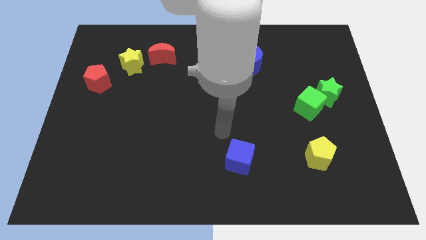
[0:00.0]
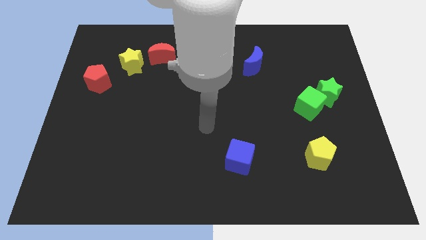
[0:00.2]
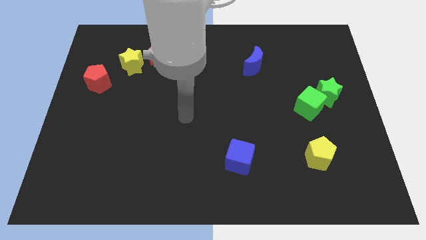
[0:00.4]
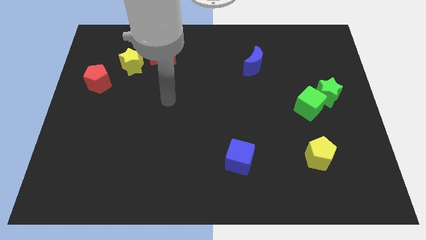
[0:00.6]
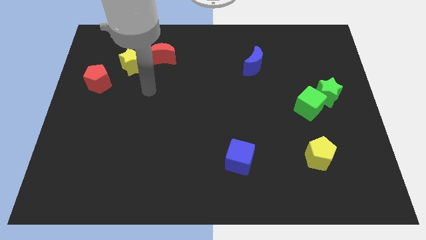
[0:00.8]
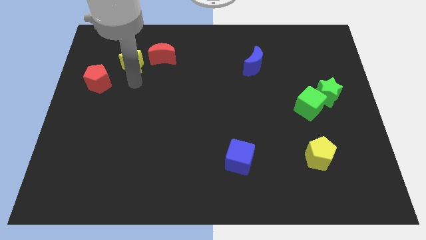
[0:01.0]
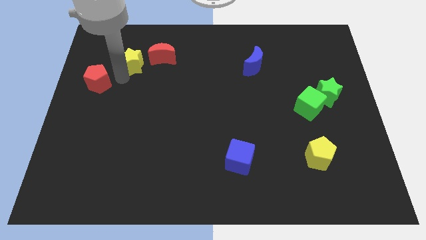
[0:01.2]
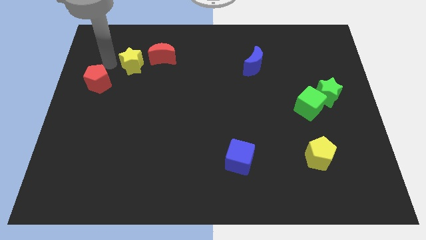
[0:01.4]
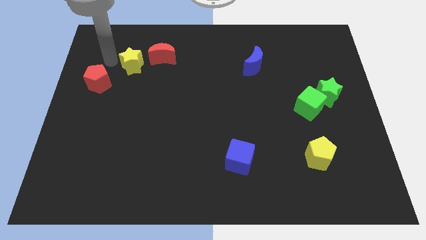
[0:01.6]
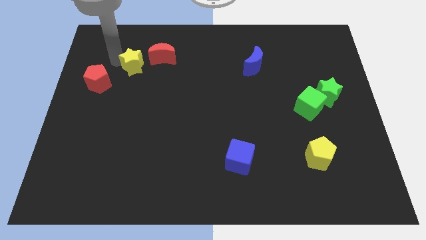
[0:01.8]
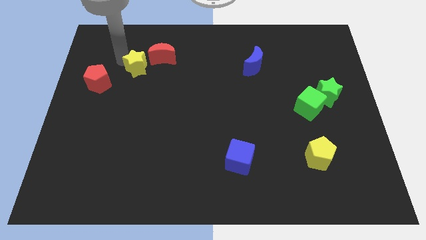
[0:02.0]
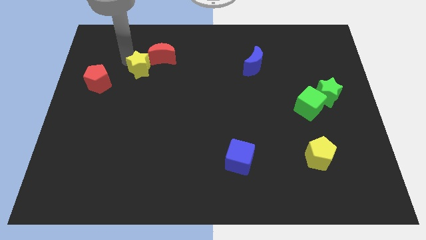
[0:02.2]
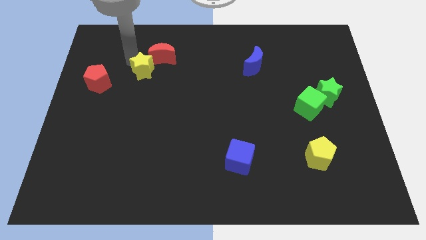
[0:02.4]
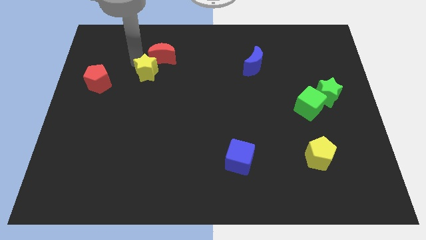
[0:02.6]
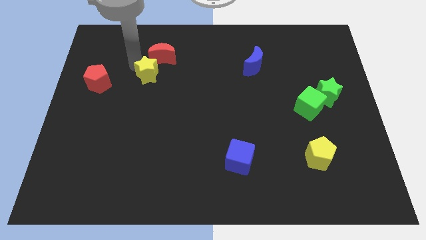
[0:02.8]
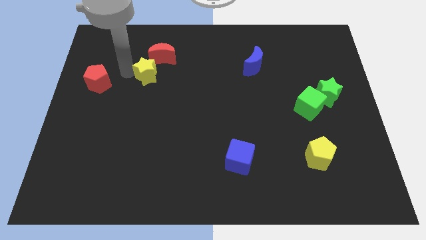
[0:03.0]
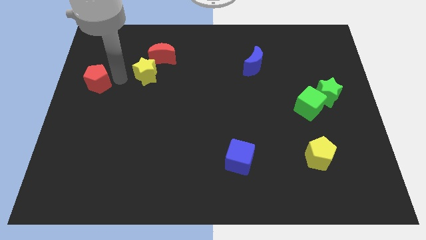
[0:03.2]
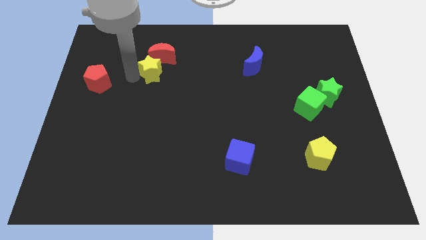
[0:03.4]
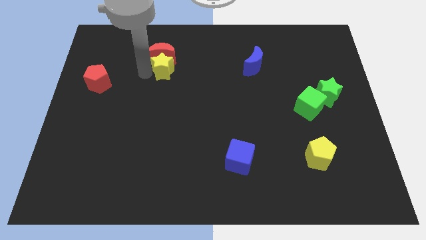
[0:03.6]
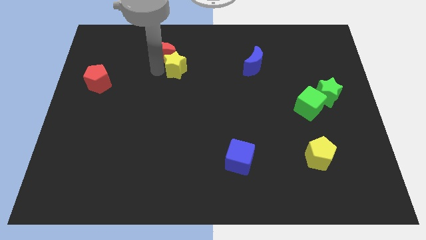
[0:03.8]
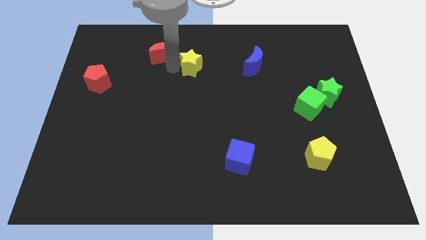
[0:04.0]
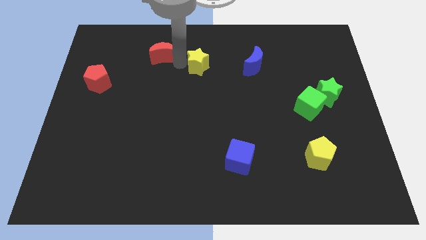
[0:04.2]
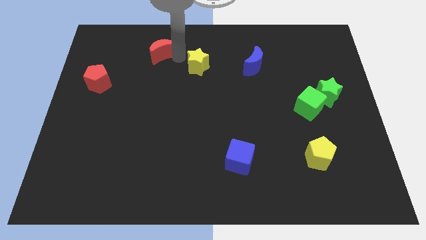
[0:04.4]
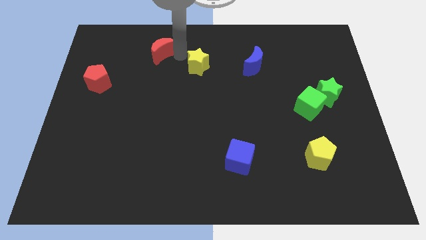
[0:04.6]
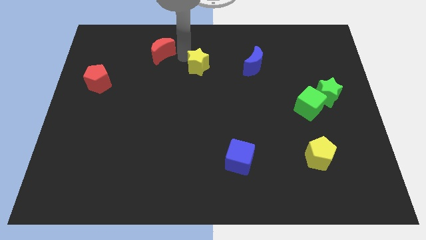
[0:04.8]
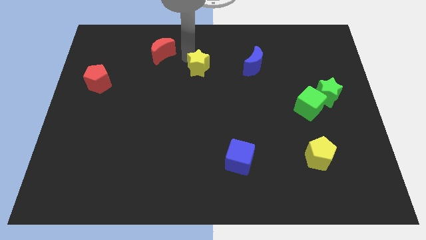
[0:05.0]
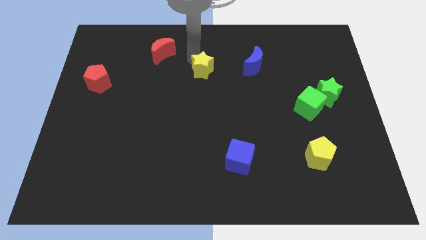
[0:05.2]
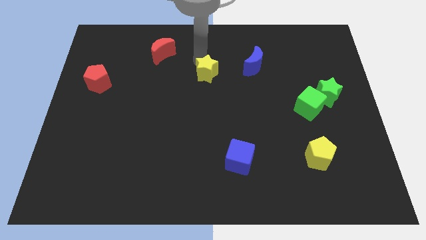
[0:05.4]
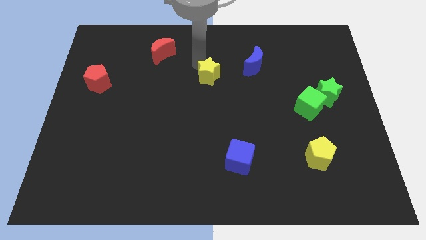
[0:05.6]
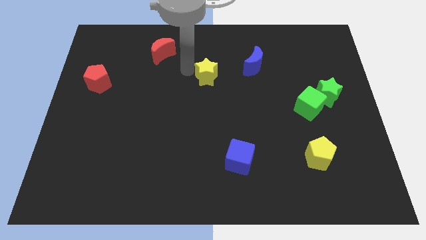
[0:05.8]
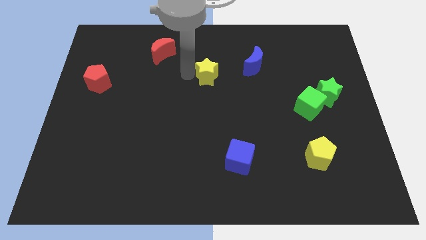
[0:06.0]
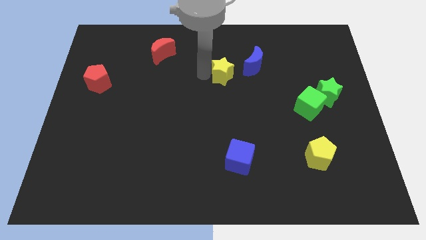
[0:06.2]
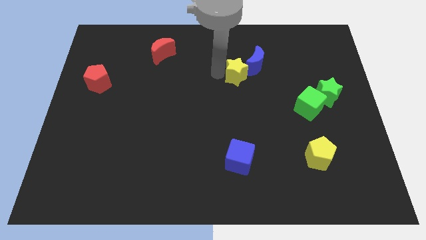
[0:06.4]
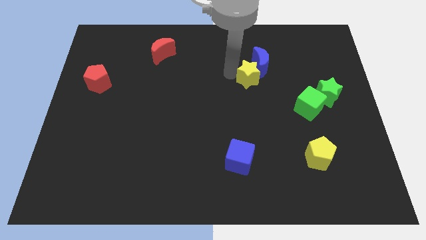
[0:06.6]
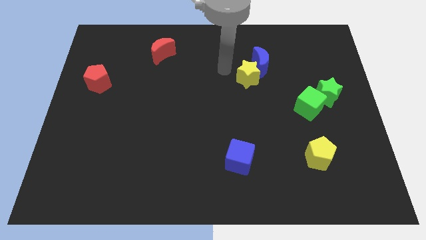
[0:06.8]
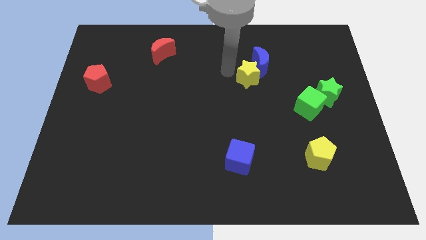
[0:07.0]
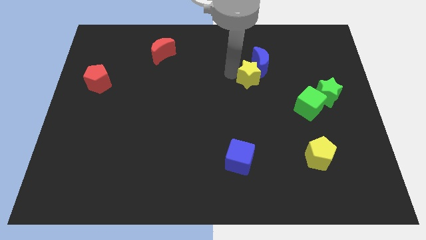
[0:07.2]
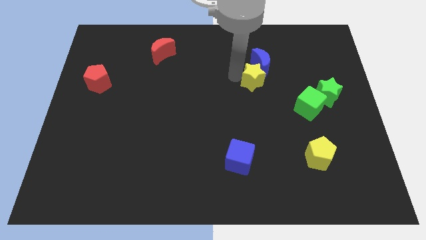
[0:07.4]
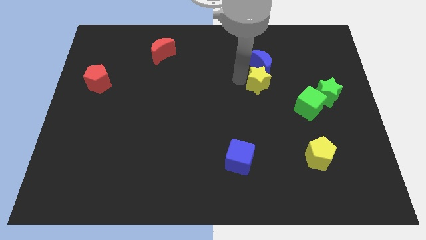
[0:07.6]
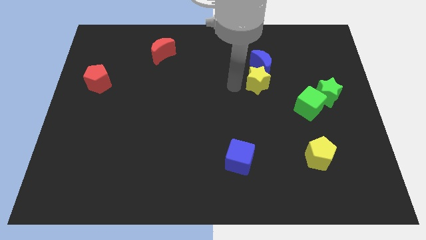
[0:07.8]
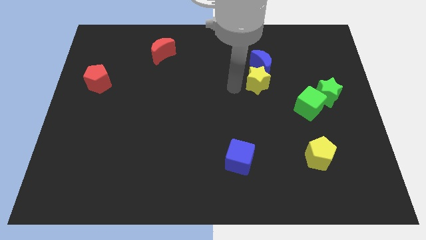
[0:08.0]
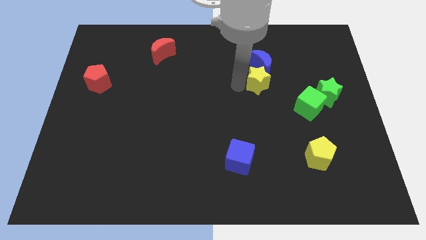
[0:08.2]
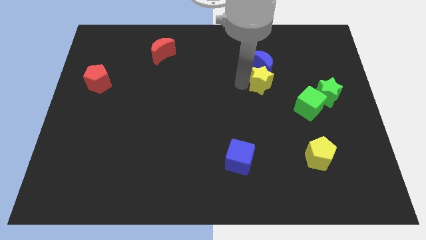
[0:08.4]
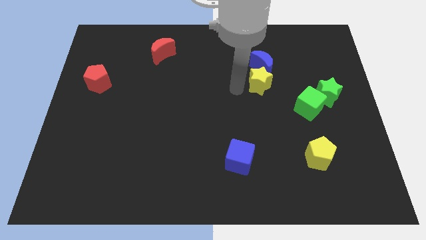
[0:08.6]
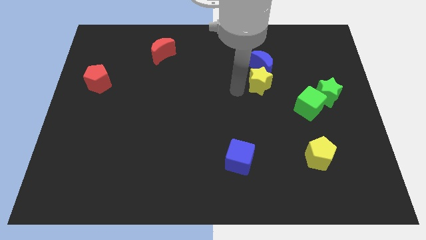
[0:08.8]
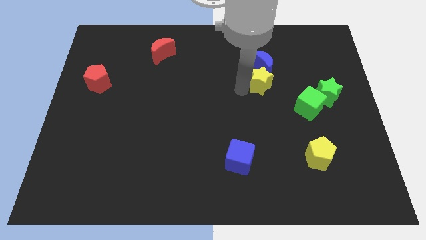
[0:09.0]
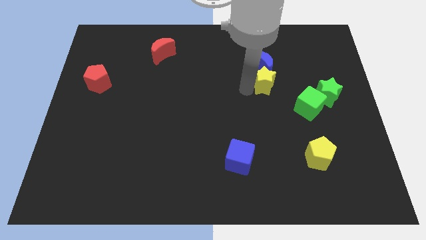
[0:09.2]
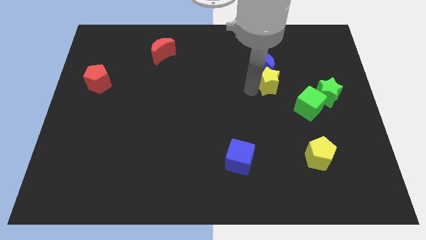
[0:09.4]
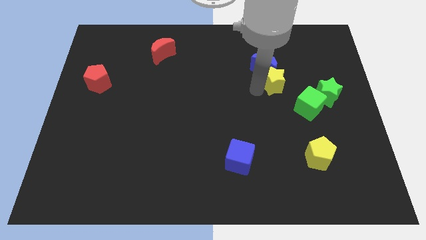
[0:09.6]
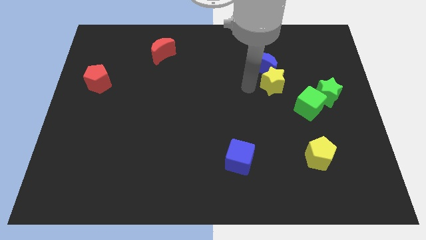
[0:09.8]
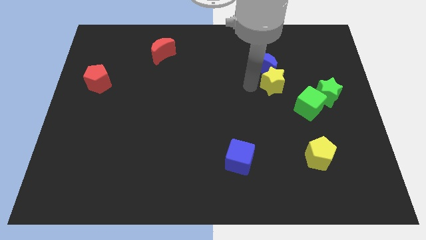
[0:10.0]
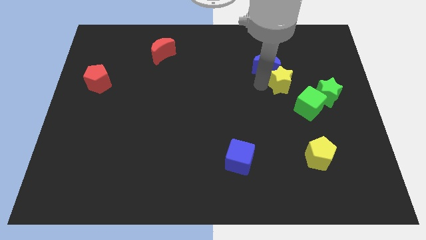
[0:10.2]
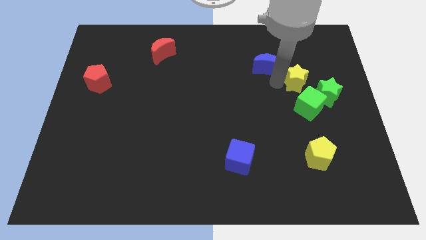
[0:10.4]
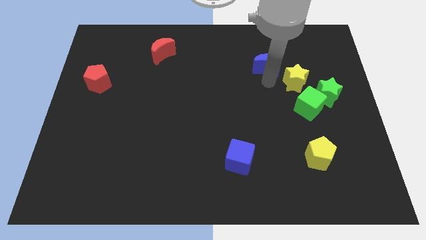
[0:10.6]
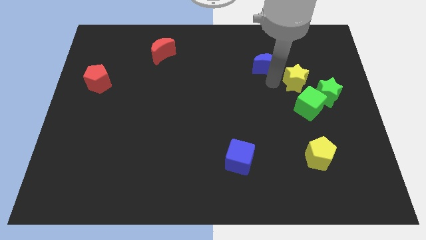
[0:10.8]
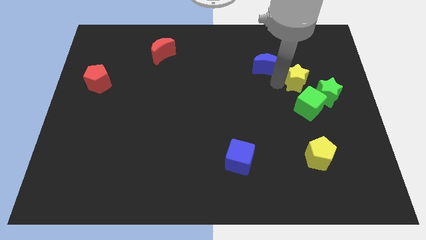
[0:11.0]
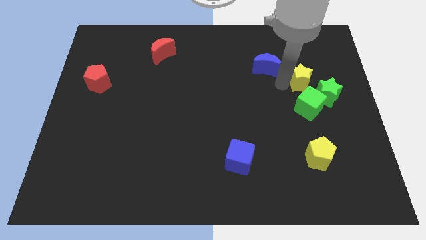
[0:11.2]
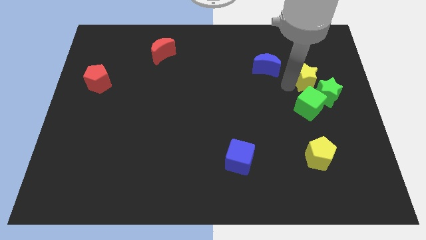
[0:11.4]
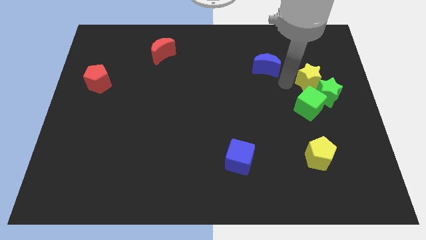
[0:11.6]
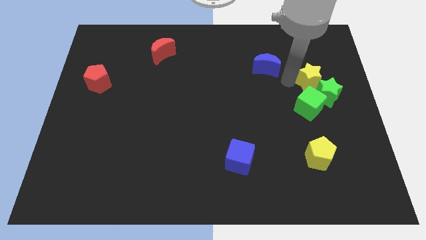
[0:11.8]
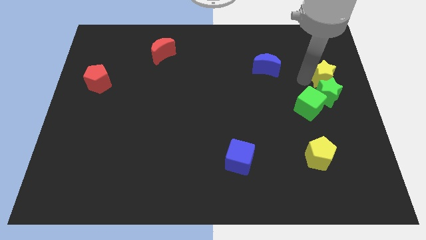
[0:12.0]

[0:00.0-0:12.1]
slide the yellow star to the right side

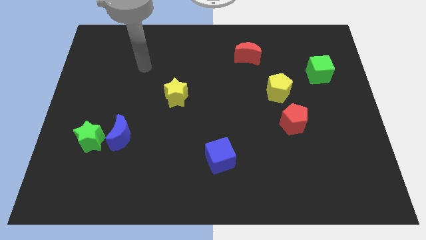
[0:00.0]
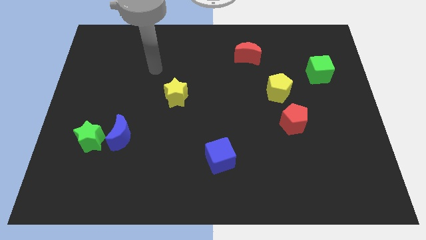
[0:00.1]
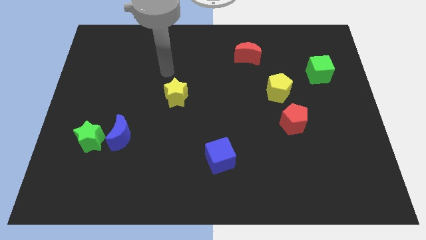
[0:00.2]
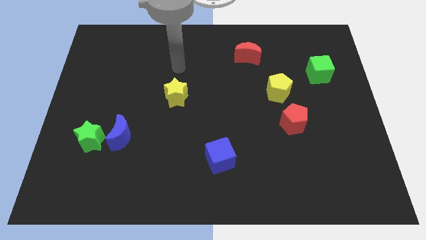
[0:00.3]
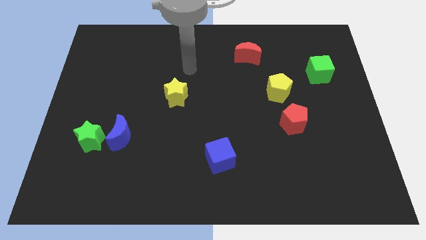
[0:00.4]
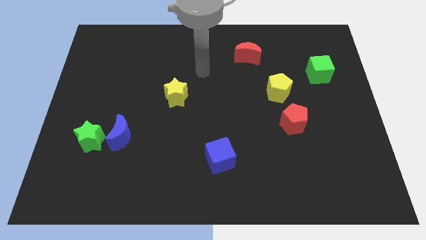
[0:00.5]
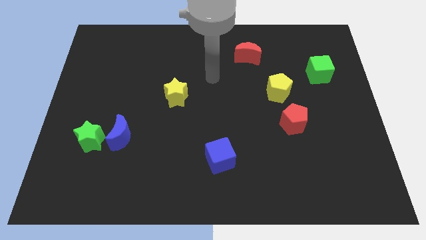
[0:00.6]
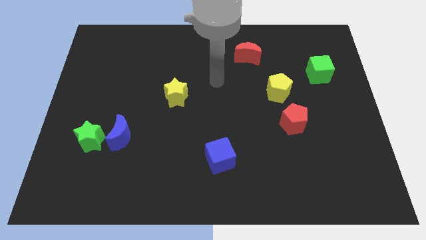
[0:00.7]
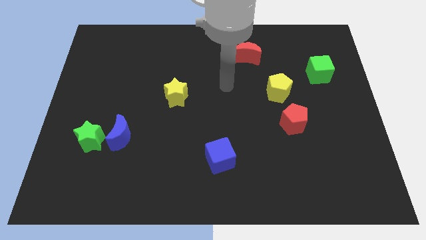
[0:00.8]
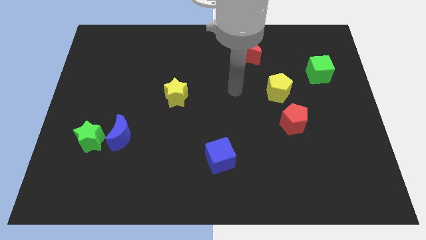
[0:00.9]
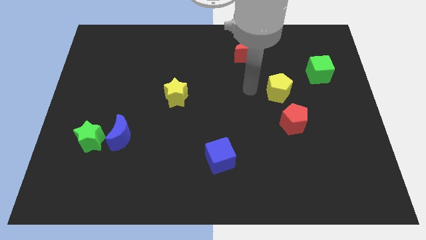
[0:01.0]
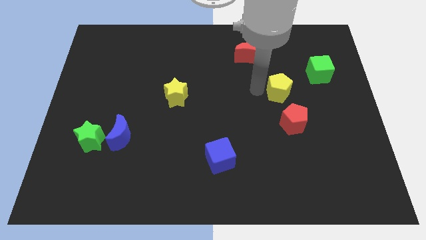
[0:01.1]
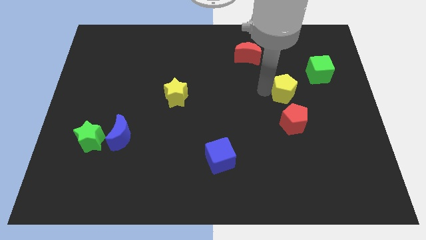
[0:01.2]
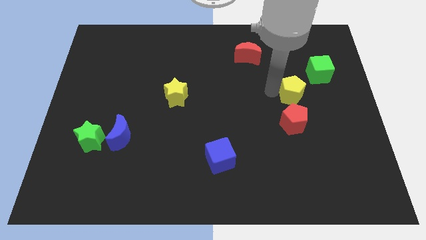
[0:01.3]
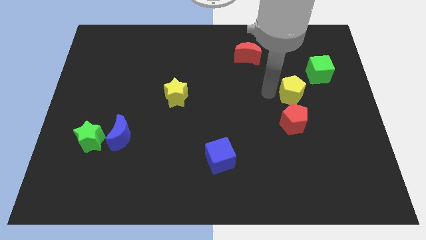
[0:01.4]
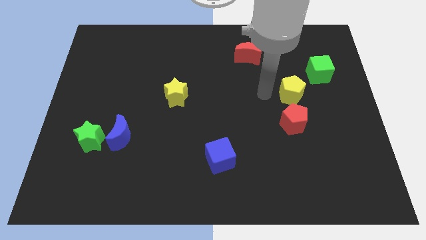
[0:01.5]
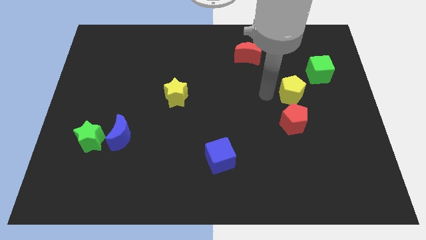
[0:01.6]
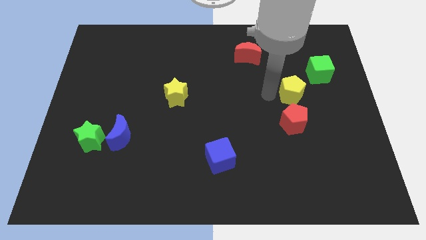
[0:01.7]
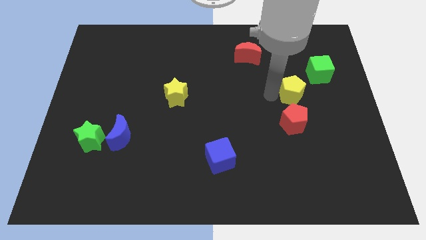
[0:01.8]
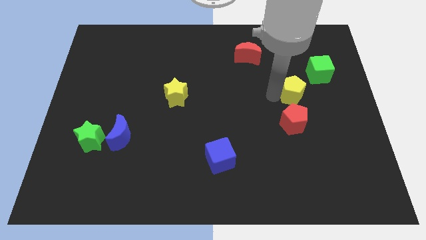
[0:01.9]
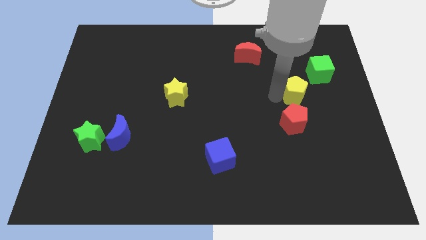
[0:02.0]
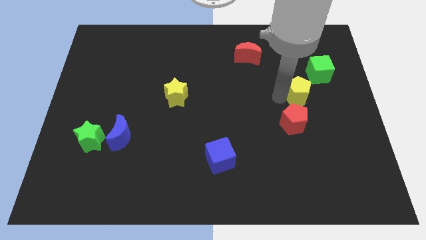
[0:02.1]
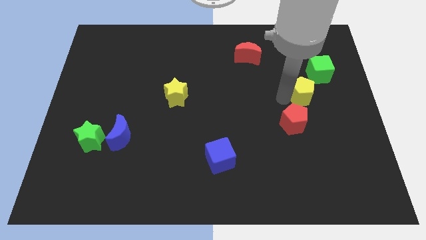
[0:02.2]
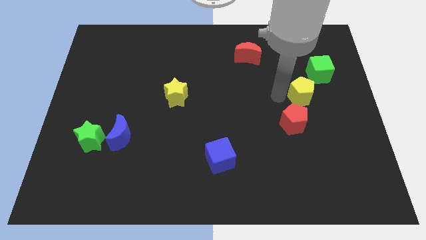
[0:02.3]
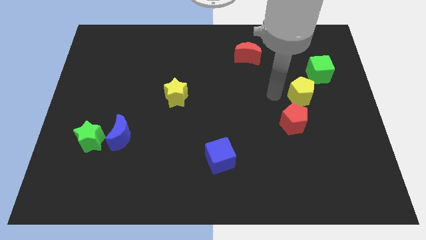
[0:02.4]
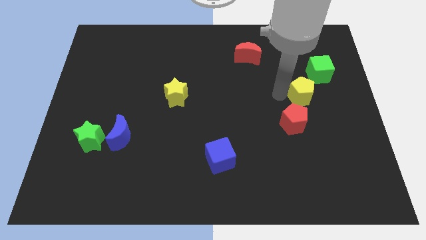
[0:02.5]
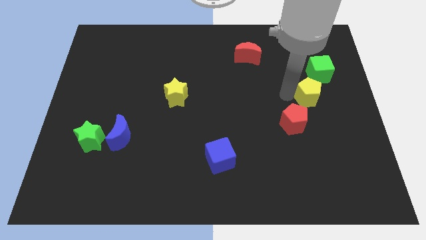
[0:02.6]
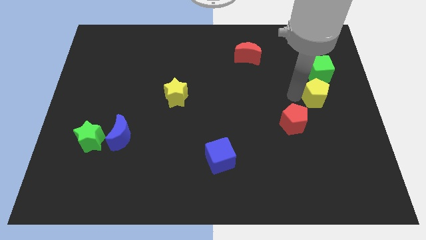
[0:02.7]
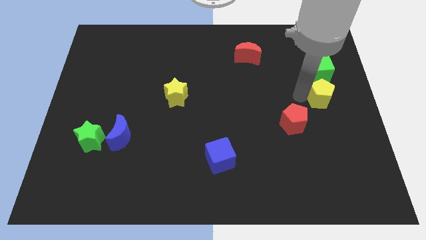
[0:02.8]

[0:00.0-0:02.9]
push the yellow pentagon to the right side of the board
